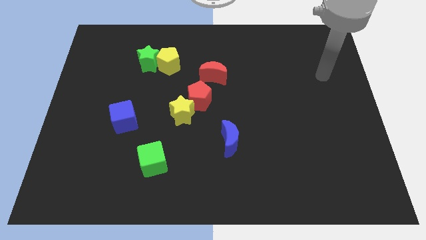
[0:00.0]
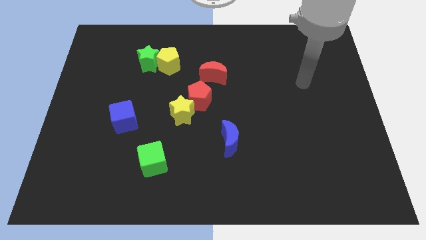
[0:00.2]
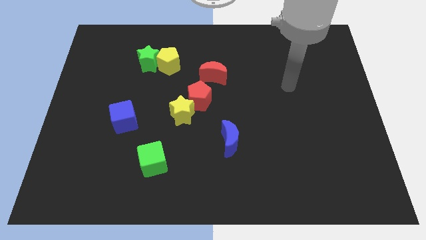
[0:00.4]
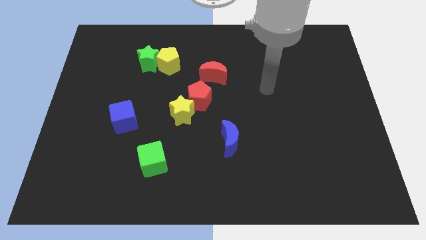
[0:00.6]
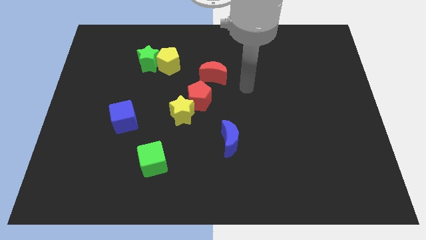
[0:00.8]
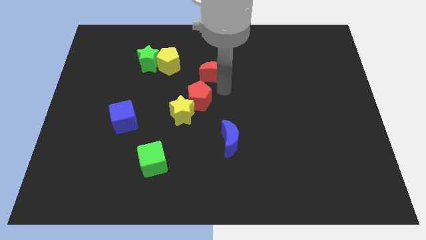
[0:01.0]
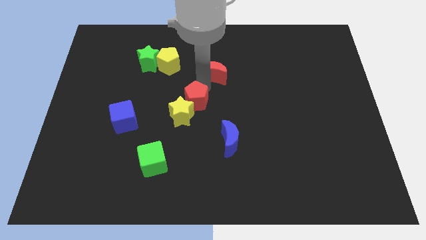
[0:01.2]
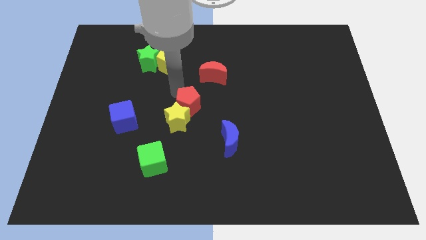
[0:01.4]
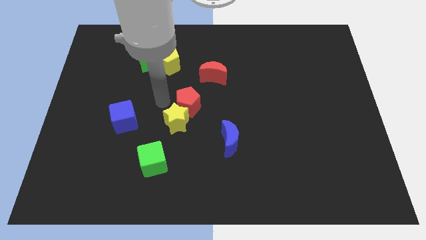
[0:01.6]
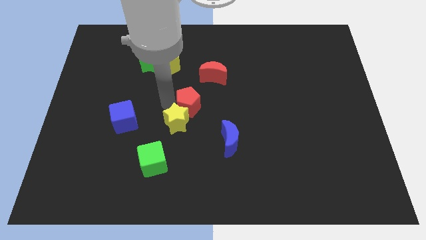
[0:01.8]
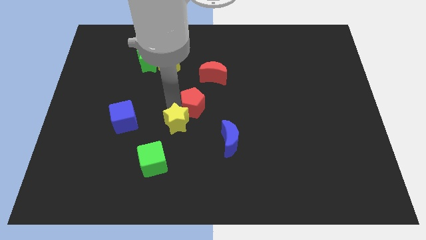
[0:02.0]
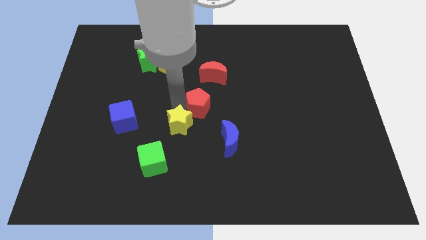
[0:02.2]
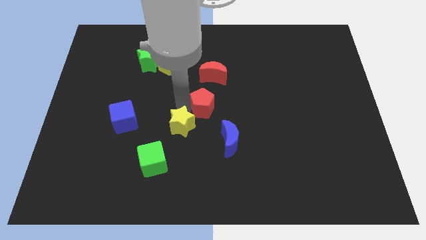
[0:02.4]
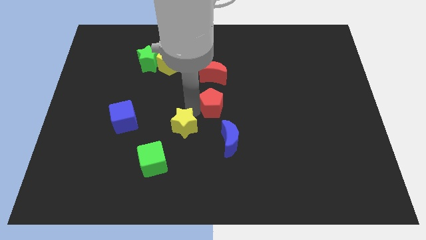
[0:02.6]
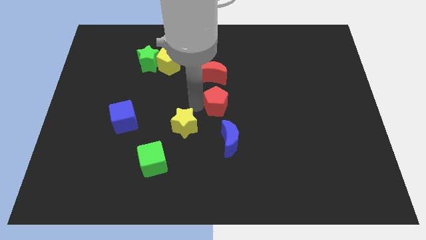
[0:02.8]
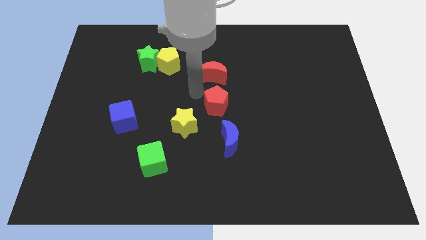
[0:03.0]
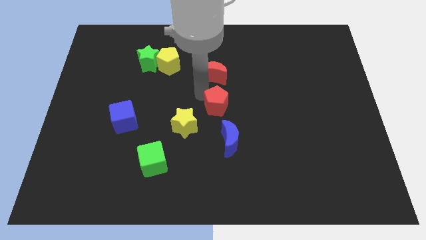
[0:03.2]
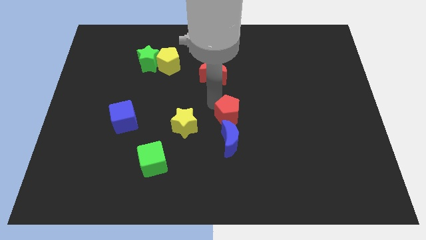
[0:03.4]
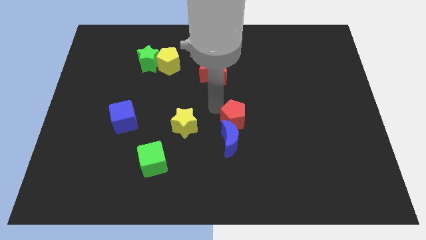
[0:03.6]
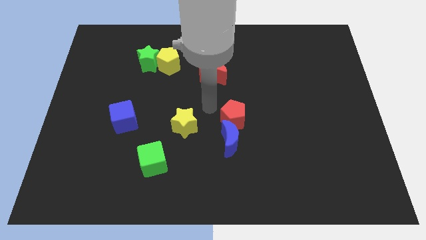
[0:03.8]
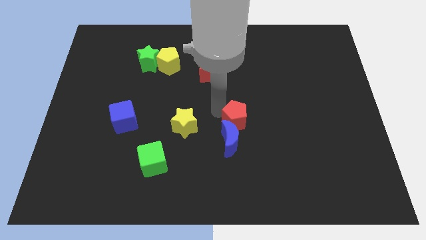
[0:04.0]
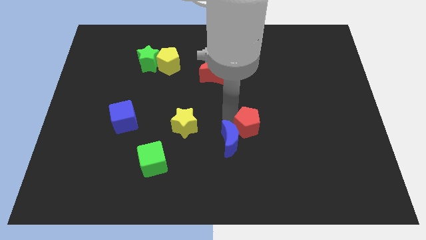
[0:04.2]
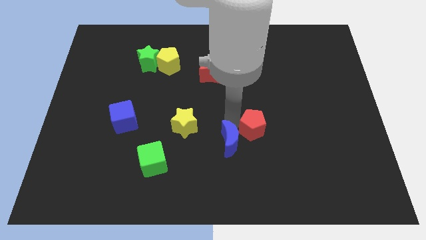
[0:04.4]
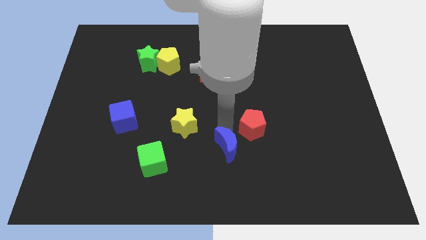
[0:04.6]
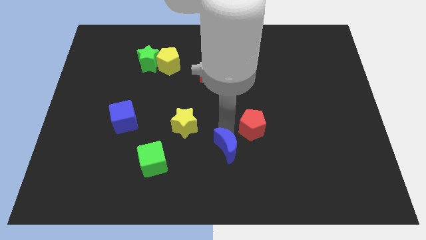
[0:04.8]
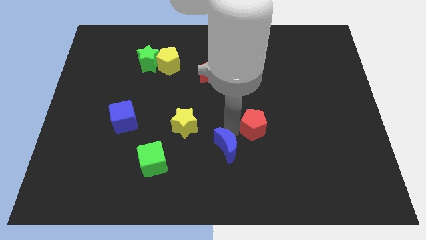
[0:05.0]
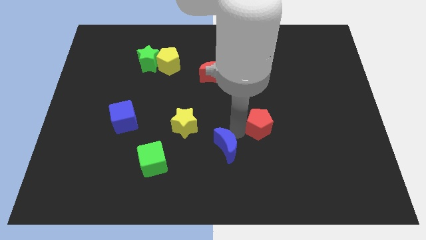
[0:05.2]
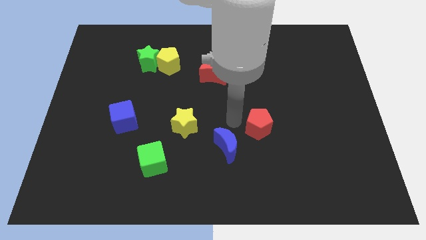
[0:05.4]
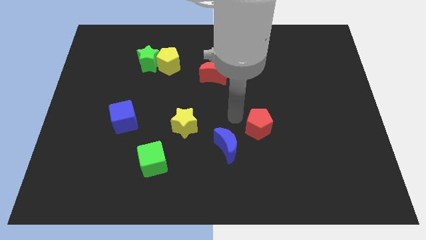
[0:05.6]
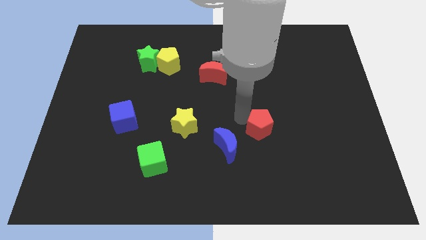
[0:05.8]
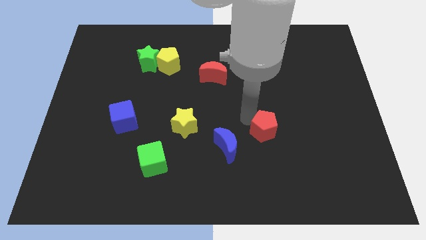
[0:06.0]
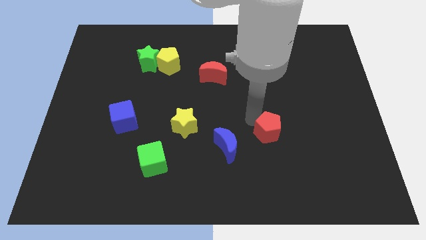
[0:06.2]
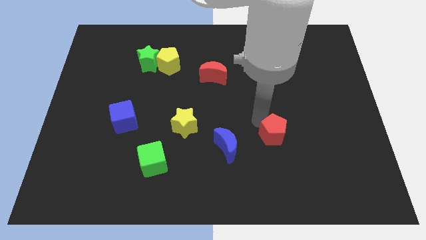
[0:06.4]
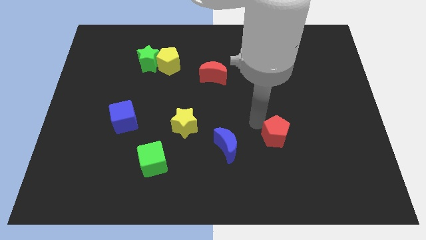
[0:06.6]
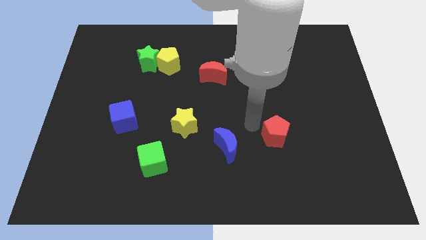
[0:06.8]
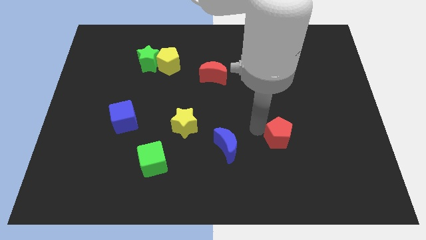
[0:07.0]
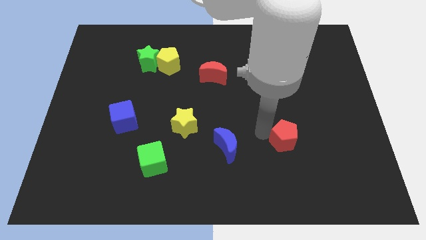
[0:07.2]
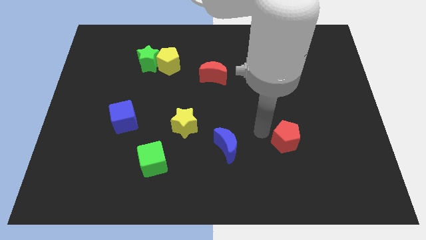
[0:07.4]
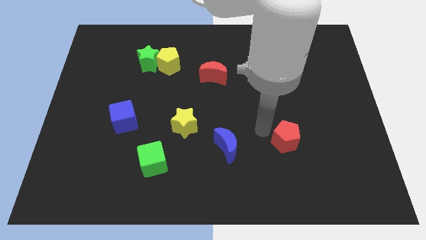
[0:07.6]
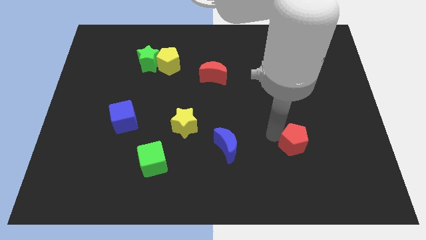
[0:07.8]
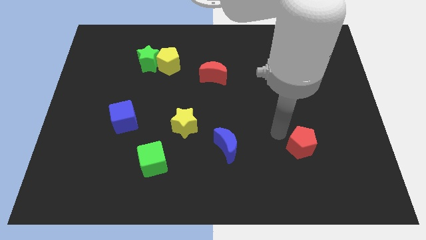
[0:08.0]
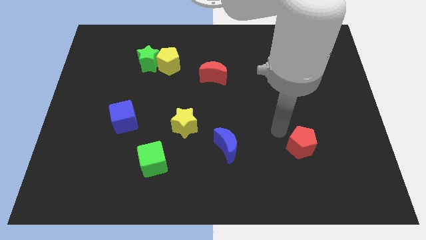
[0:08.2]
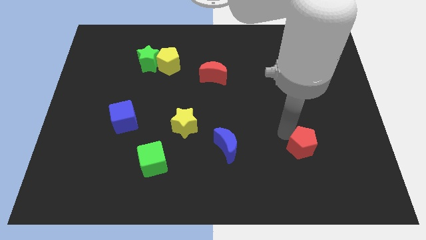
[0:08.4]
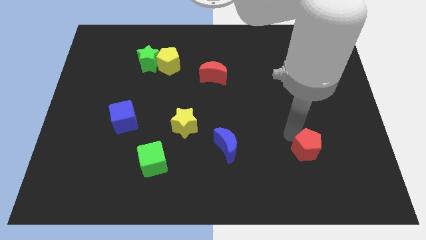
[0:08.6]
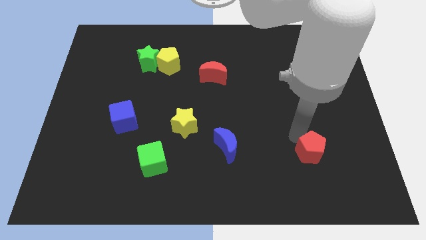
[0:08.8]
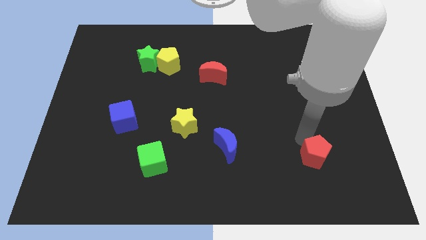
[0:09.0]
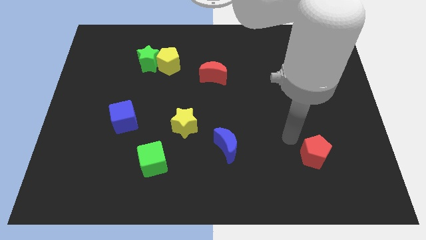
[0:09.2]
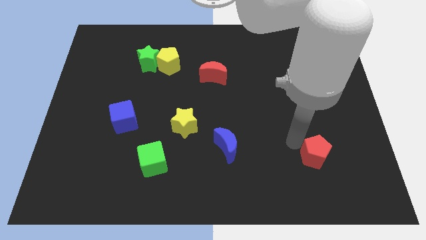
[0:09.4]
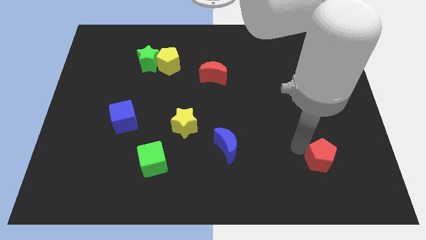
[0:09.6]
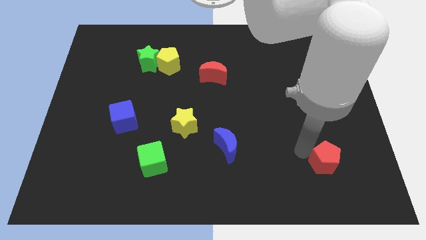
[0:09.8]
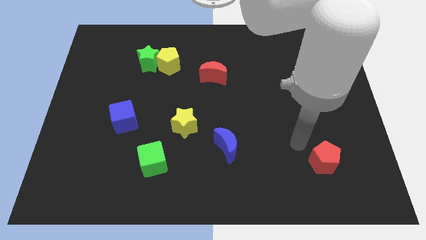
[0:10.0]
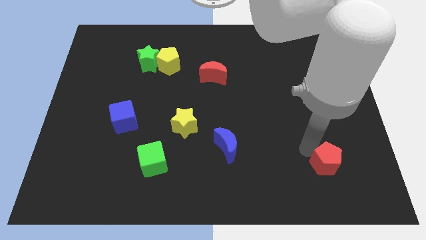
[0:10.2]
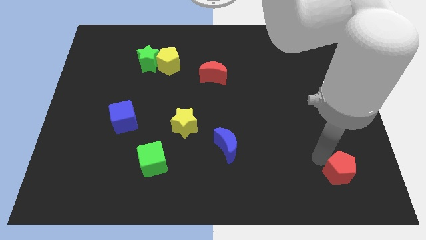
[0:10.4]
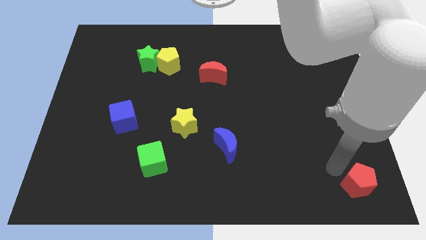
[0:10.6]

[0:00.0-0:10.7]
push the red pentagon to the bottom right corner
